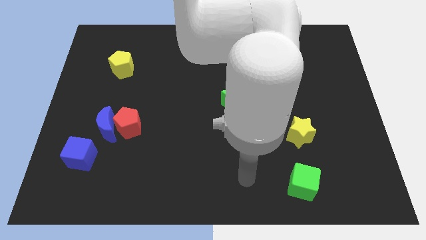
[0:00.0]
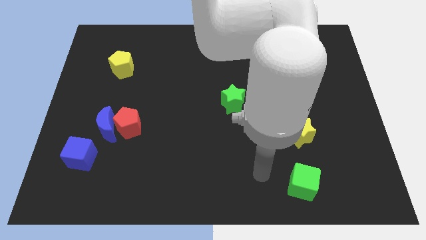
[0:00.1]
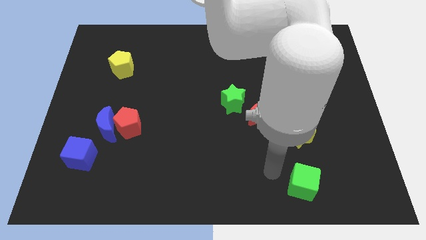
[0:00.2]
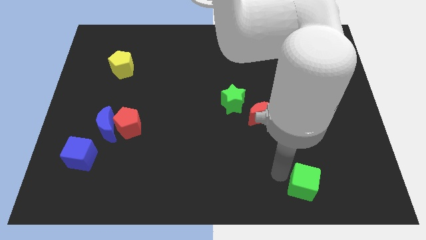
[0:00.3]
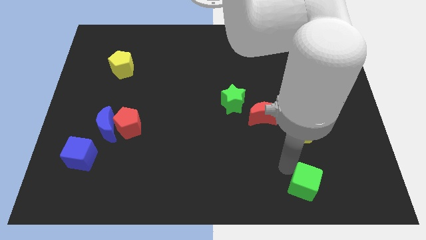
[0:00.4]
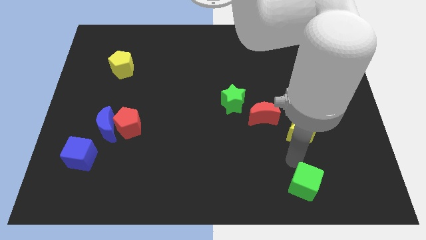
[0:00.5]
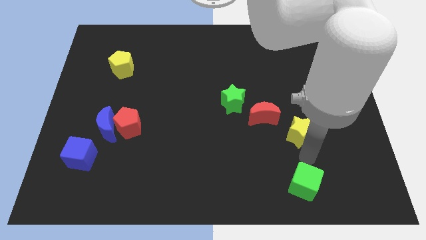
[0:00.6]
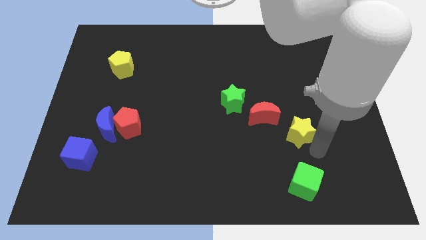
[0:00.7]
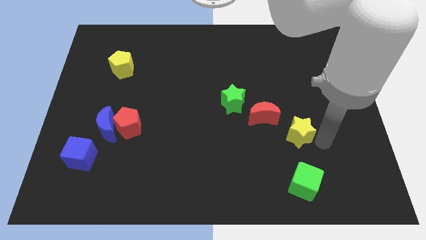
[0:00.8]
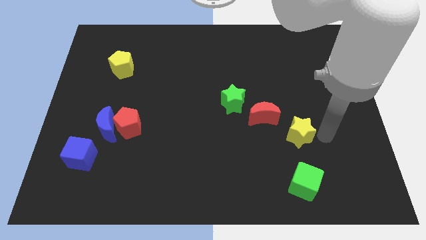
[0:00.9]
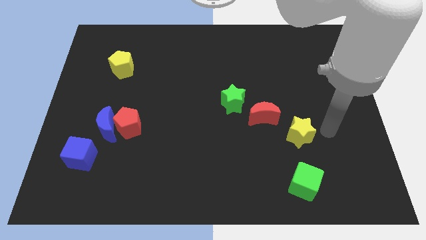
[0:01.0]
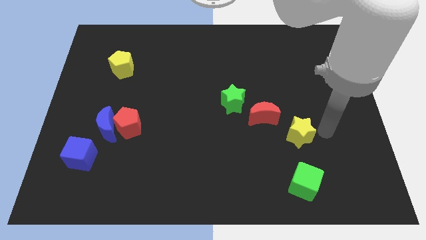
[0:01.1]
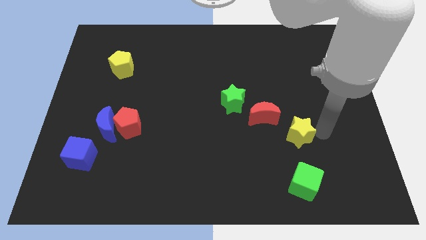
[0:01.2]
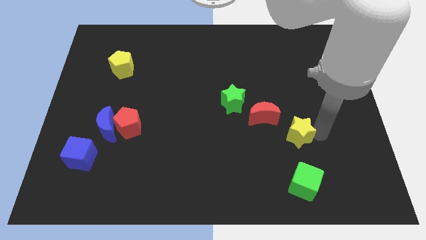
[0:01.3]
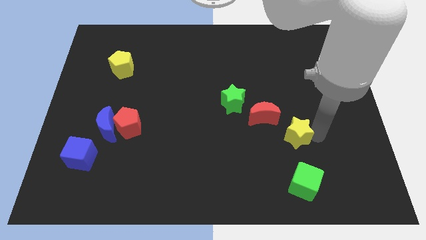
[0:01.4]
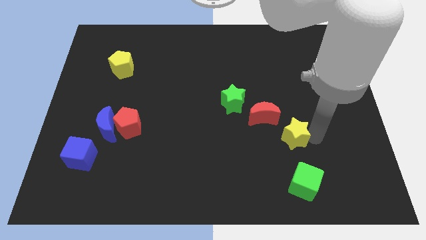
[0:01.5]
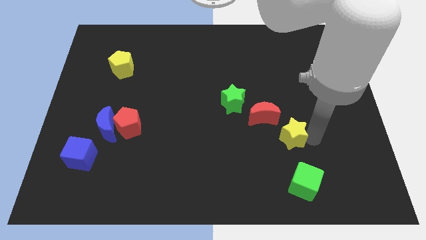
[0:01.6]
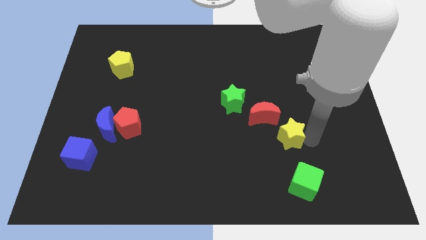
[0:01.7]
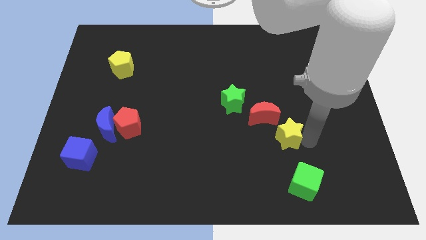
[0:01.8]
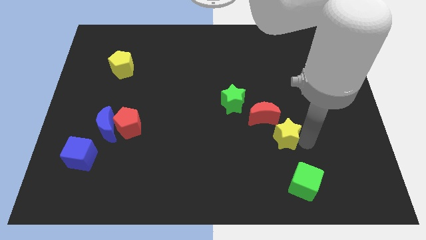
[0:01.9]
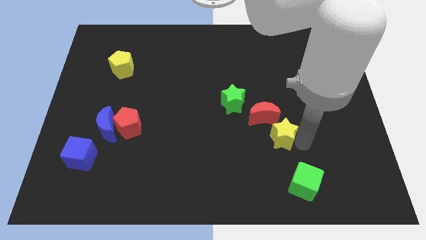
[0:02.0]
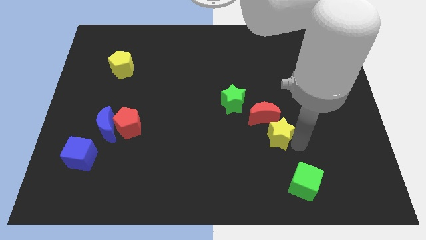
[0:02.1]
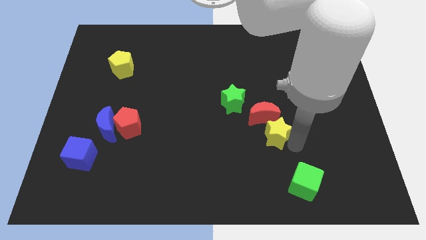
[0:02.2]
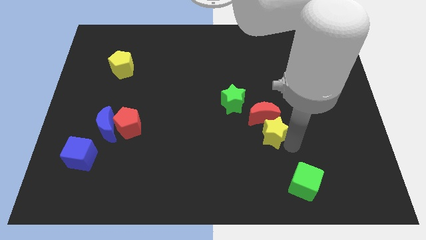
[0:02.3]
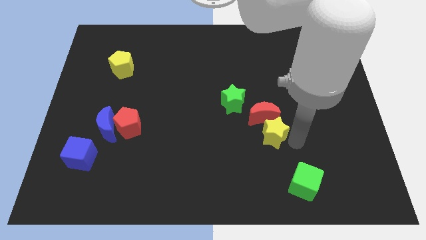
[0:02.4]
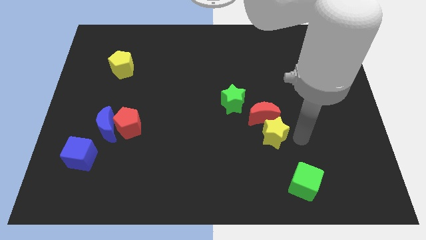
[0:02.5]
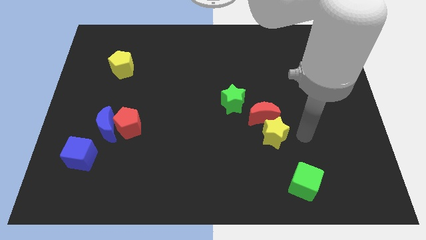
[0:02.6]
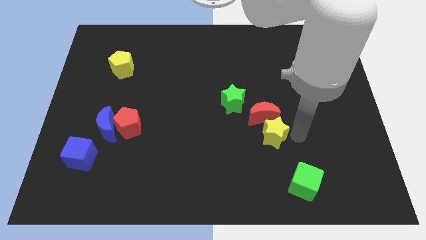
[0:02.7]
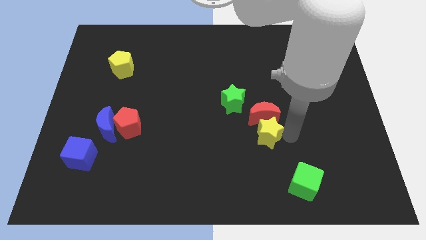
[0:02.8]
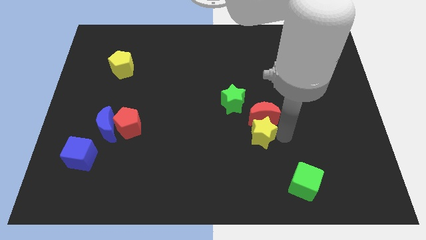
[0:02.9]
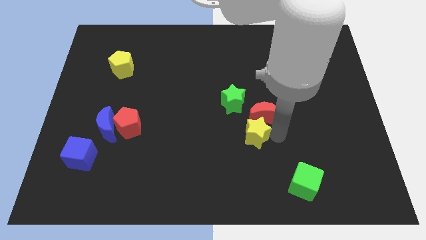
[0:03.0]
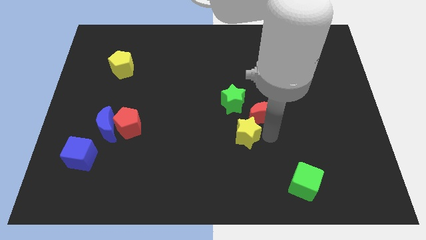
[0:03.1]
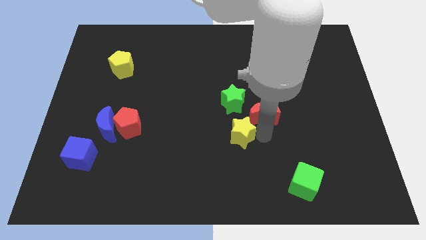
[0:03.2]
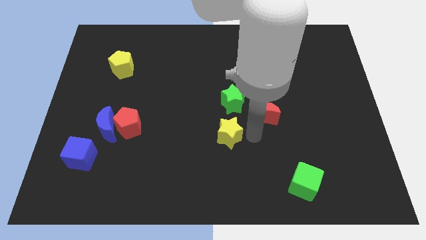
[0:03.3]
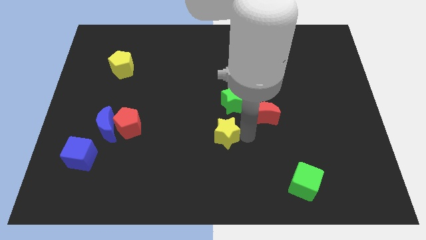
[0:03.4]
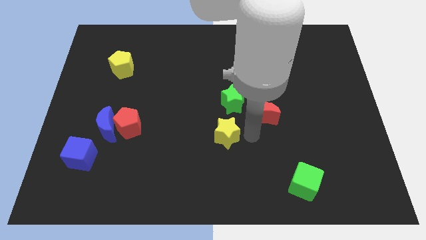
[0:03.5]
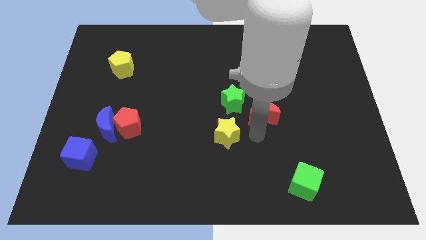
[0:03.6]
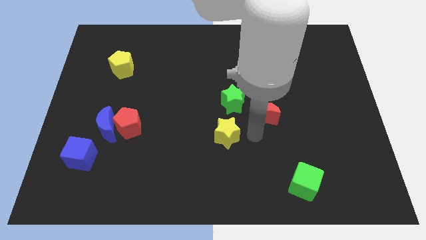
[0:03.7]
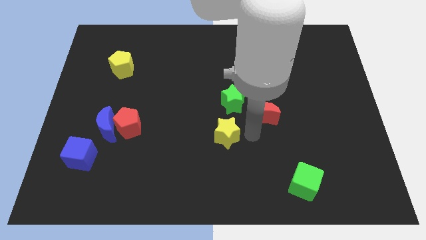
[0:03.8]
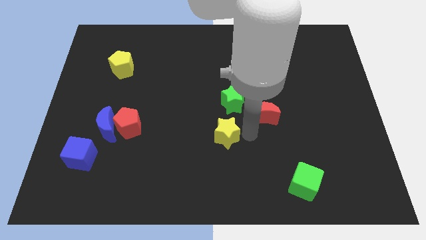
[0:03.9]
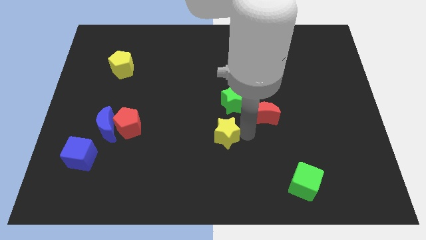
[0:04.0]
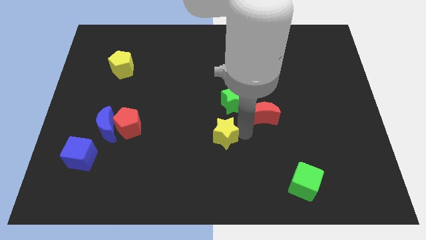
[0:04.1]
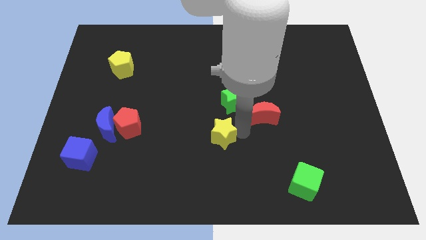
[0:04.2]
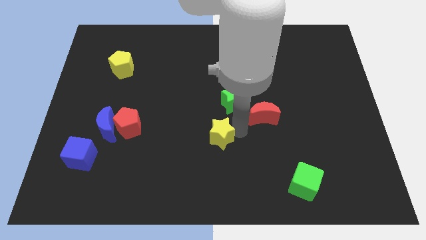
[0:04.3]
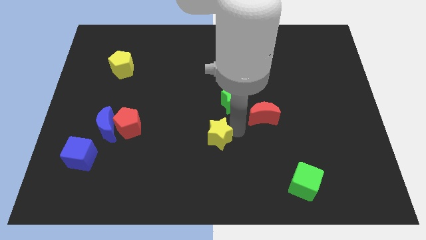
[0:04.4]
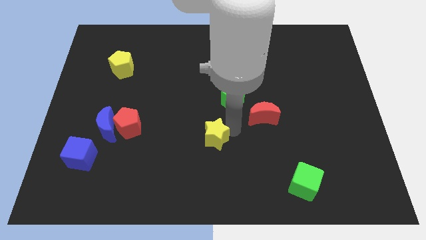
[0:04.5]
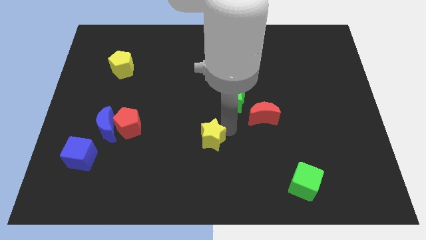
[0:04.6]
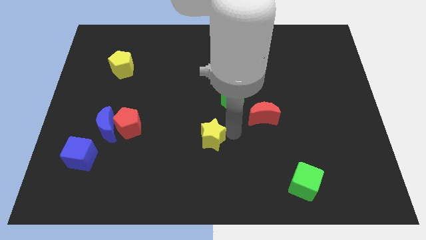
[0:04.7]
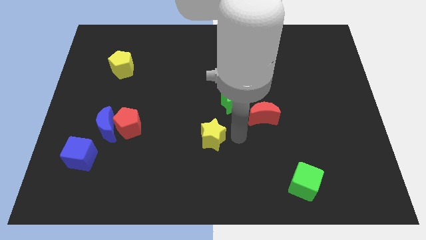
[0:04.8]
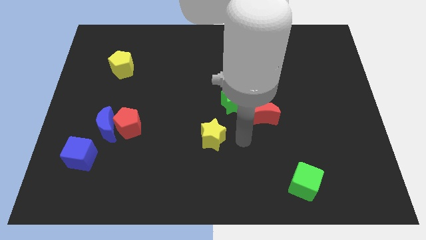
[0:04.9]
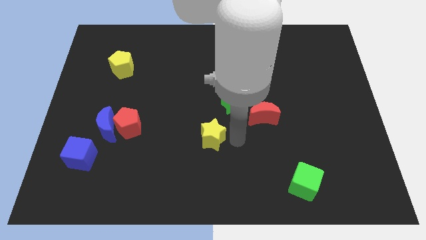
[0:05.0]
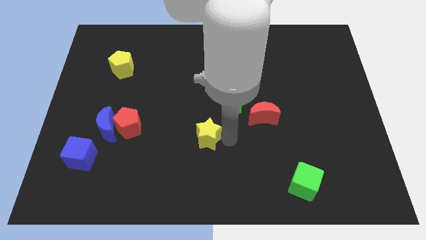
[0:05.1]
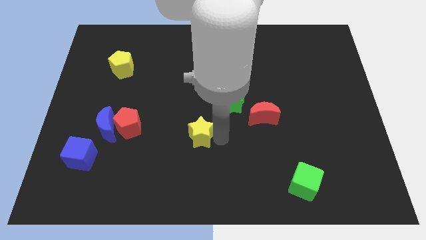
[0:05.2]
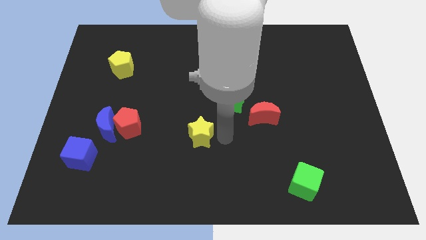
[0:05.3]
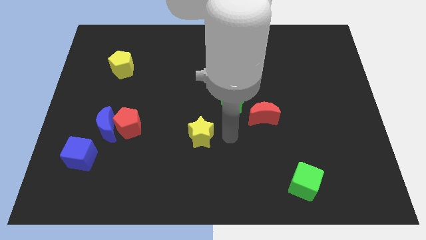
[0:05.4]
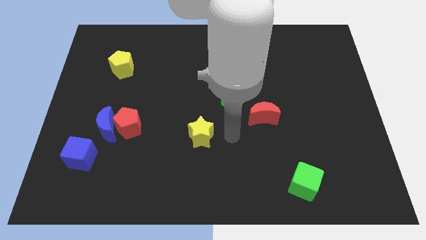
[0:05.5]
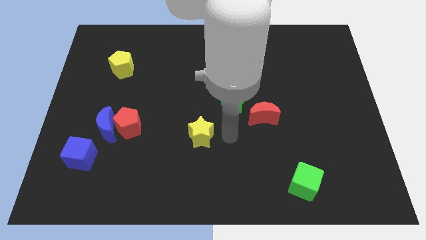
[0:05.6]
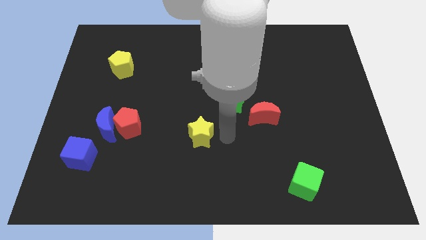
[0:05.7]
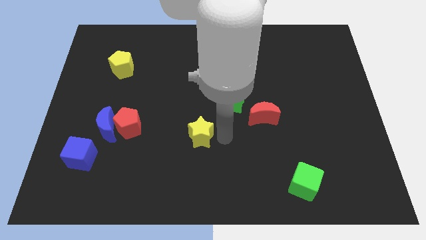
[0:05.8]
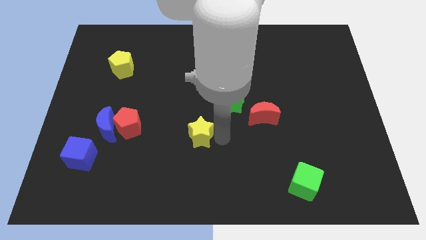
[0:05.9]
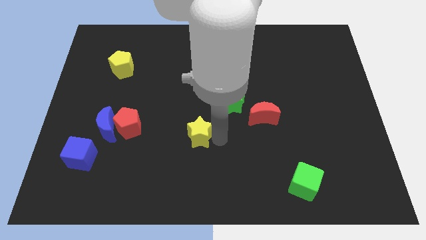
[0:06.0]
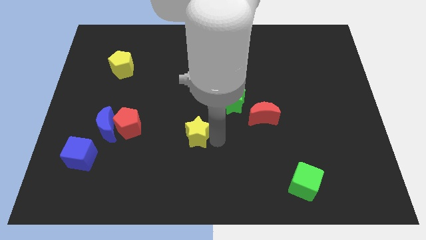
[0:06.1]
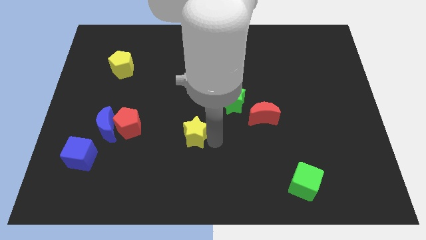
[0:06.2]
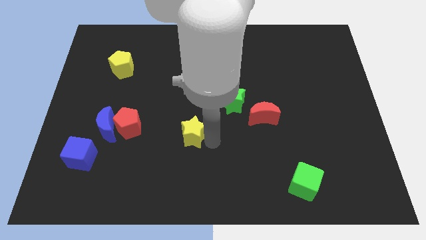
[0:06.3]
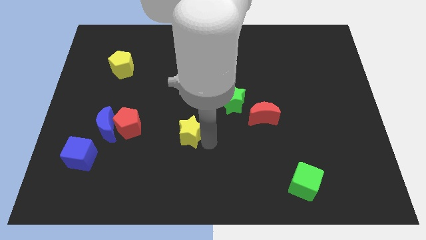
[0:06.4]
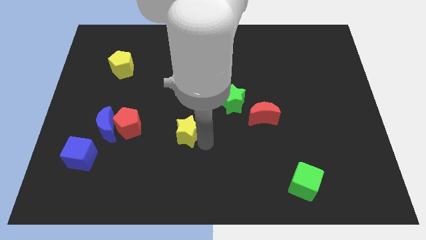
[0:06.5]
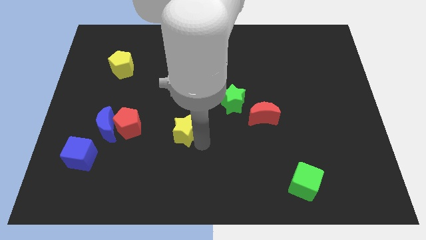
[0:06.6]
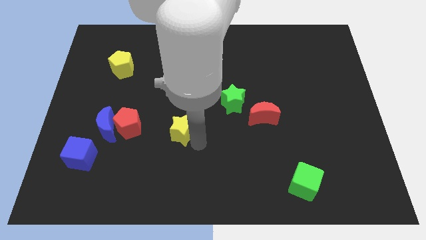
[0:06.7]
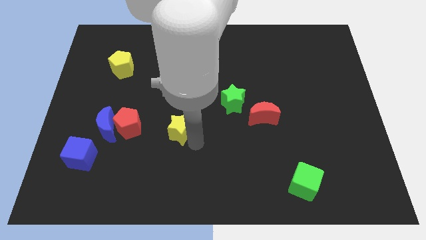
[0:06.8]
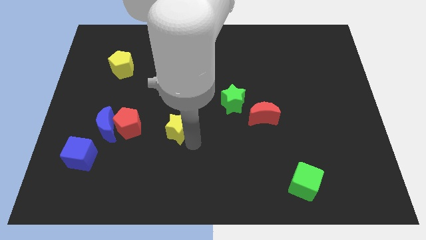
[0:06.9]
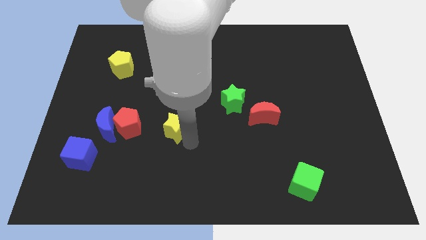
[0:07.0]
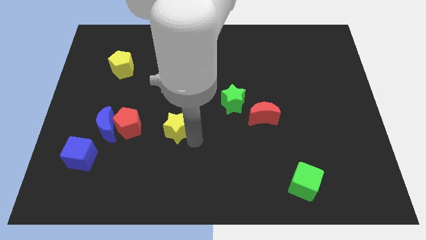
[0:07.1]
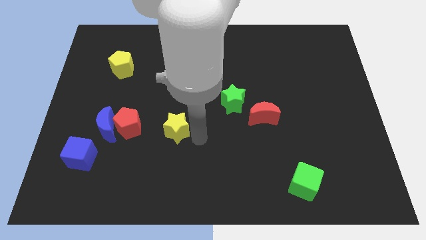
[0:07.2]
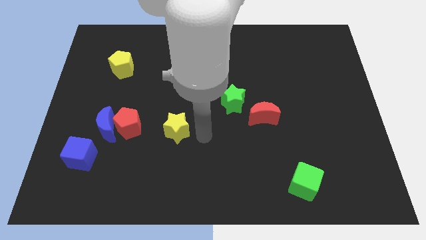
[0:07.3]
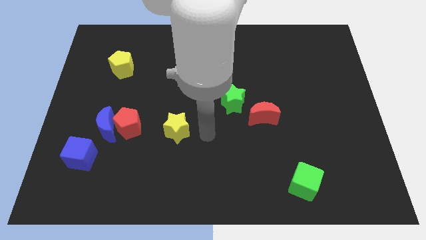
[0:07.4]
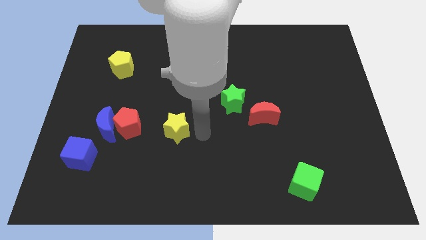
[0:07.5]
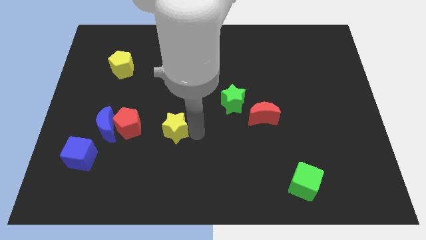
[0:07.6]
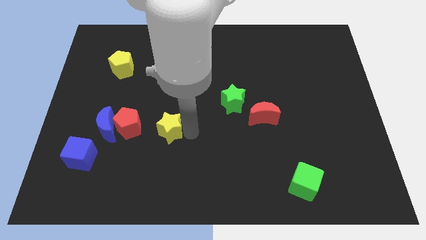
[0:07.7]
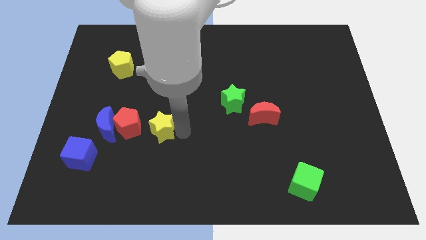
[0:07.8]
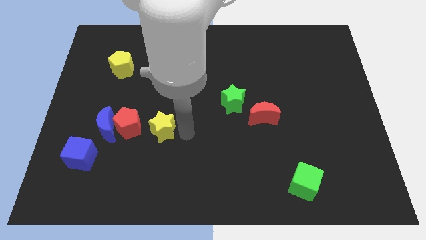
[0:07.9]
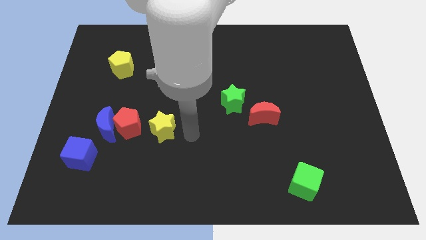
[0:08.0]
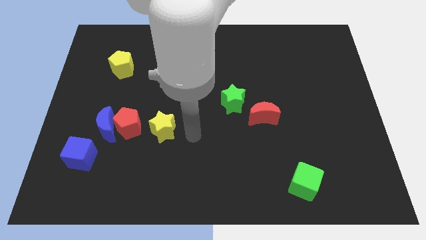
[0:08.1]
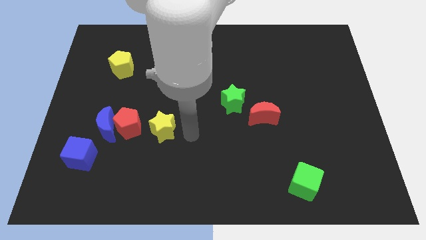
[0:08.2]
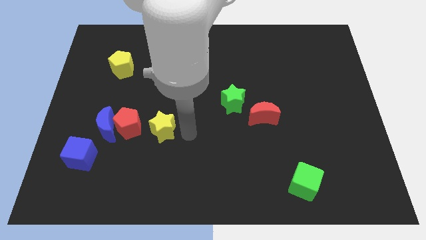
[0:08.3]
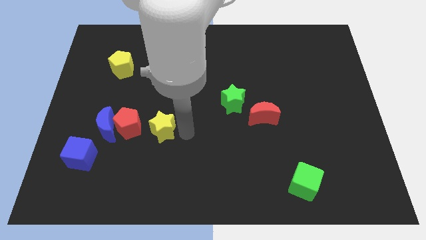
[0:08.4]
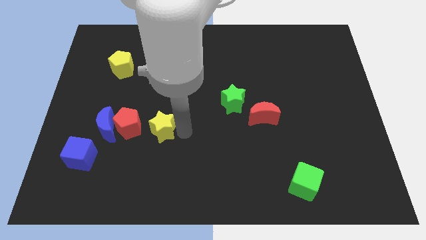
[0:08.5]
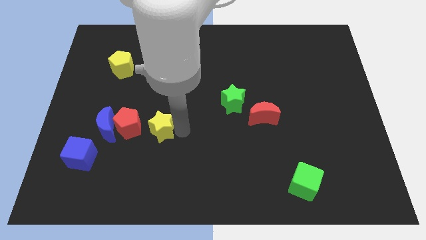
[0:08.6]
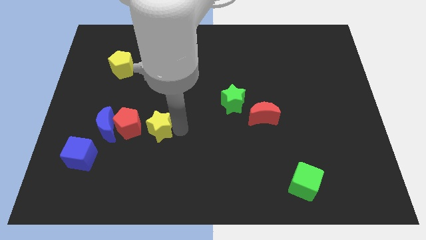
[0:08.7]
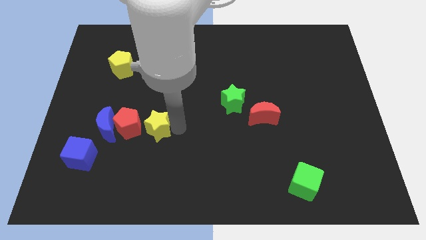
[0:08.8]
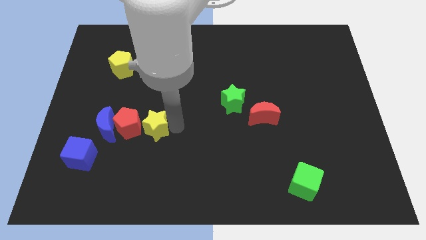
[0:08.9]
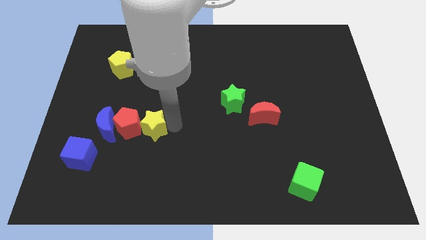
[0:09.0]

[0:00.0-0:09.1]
slide the yellow star towards the red pentagon
